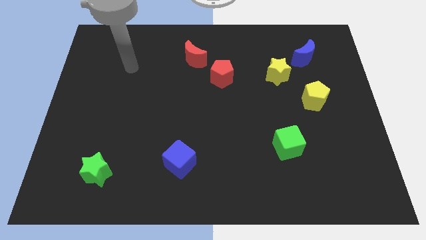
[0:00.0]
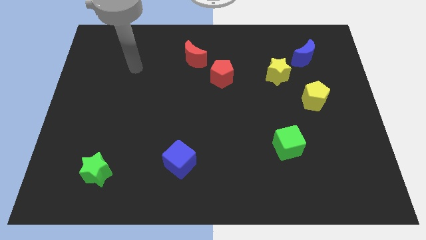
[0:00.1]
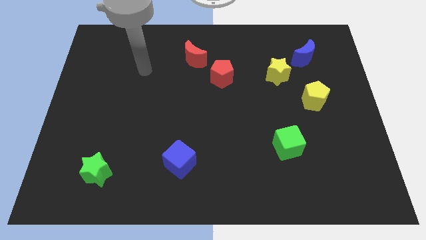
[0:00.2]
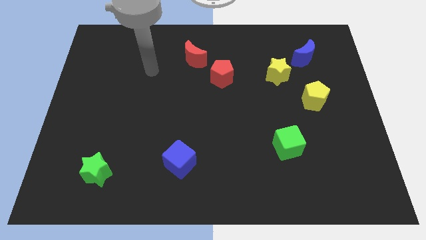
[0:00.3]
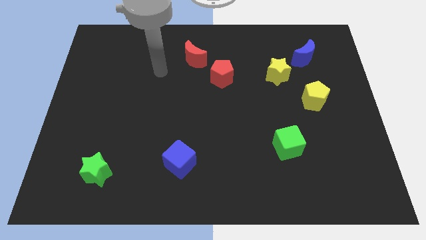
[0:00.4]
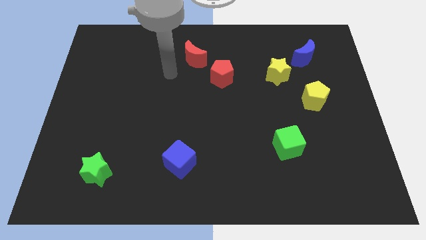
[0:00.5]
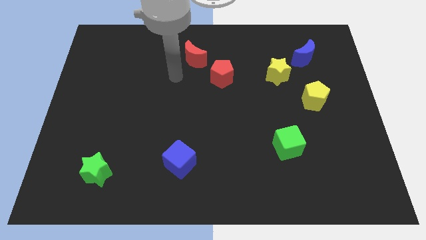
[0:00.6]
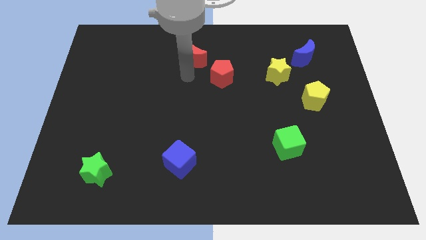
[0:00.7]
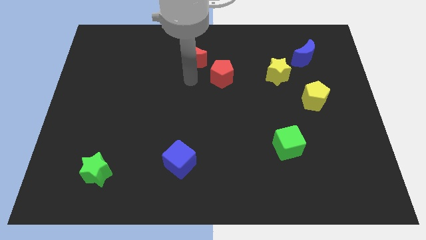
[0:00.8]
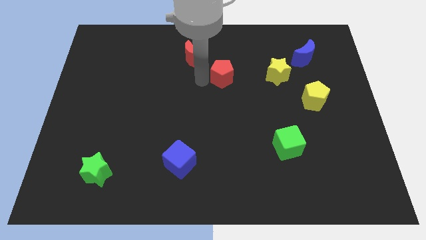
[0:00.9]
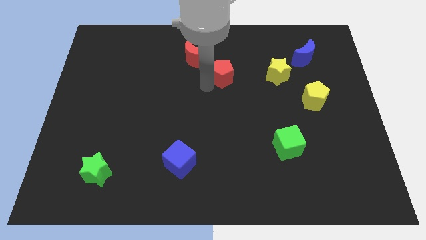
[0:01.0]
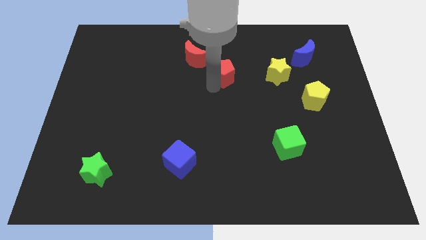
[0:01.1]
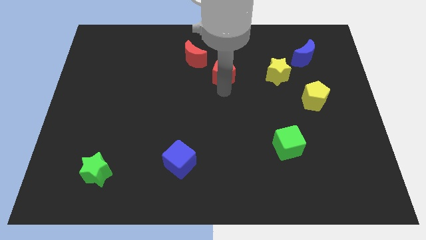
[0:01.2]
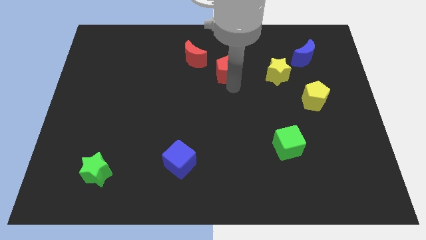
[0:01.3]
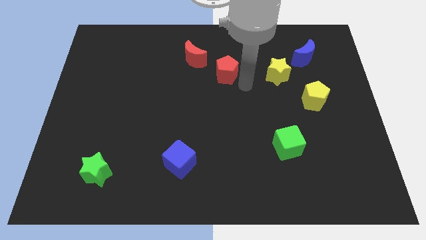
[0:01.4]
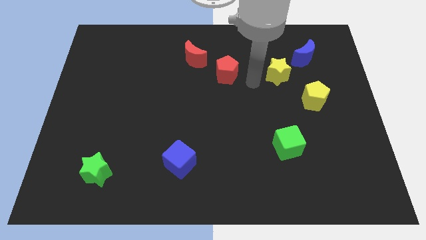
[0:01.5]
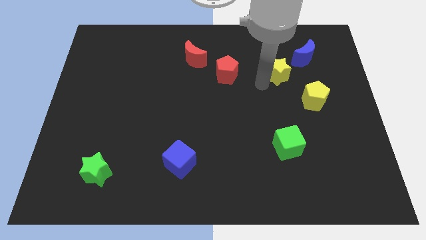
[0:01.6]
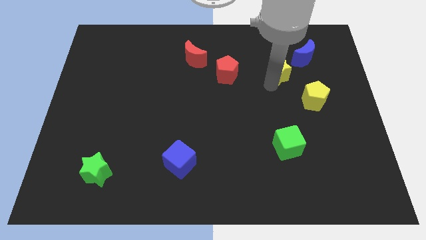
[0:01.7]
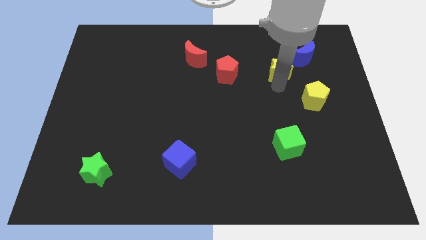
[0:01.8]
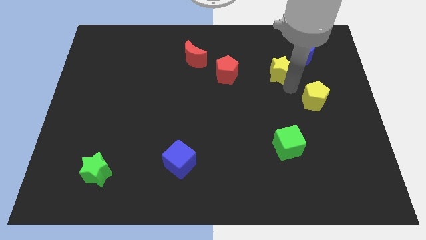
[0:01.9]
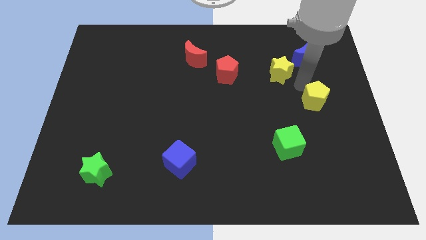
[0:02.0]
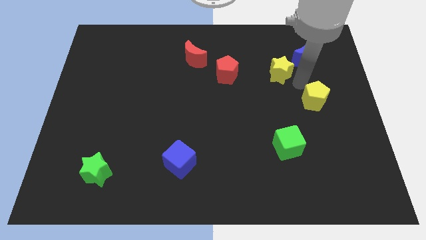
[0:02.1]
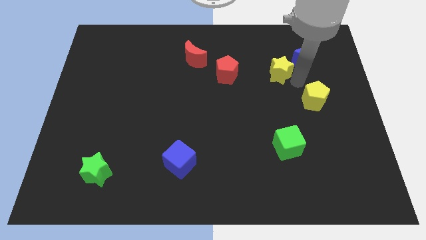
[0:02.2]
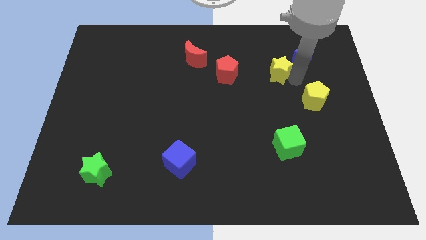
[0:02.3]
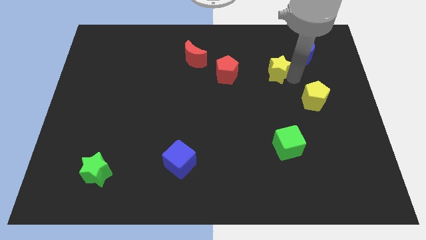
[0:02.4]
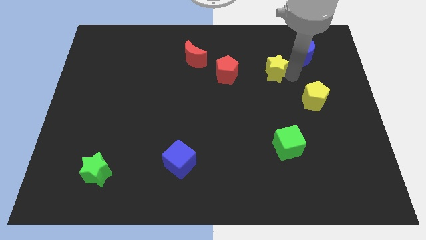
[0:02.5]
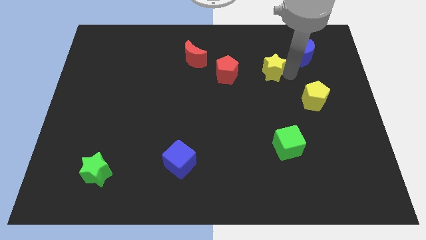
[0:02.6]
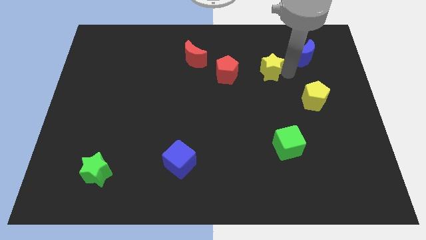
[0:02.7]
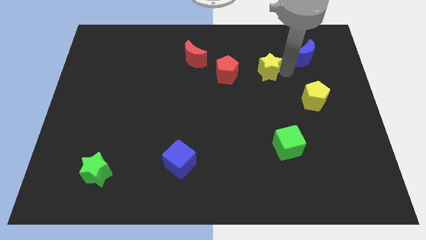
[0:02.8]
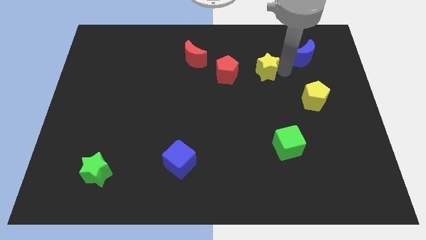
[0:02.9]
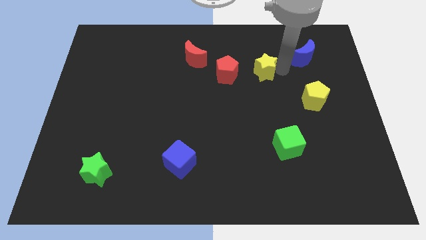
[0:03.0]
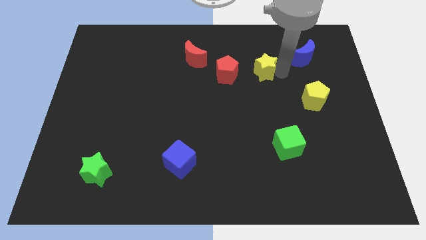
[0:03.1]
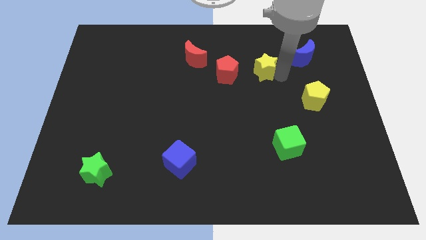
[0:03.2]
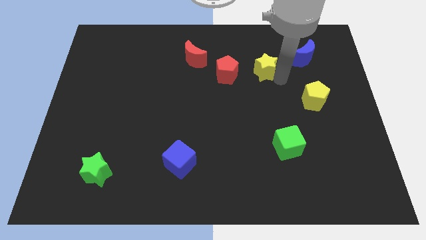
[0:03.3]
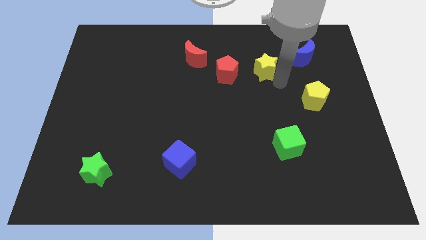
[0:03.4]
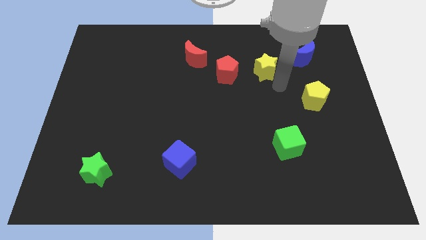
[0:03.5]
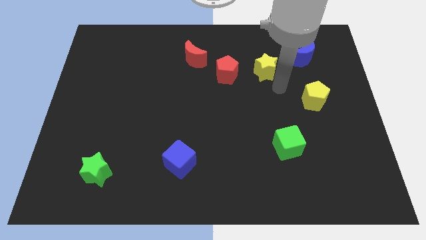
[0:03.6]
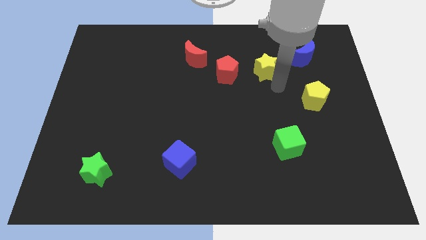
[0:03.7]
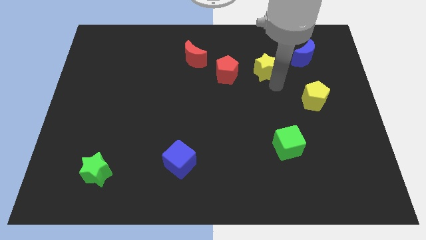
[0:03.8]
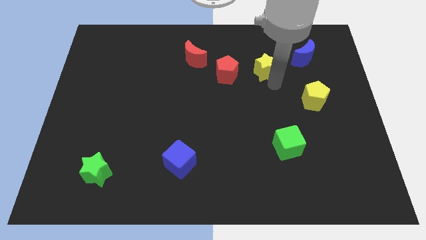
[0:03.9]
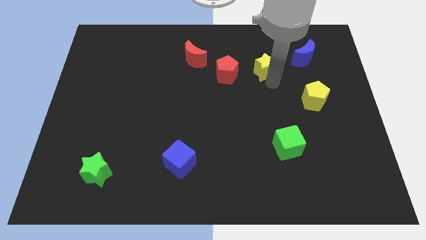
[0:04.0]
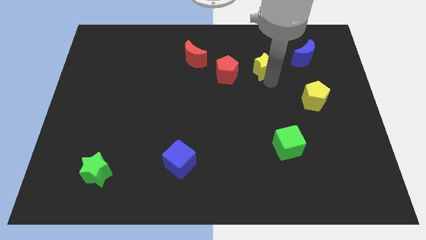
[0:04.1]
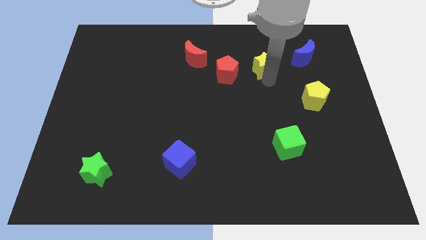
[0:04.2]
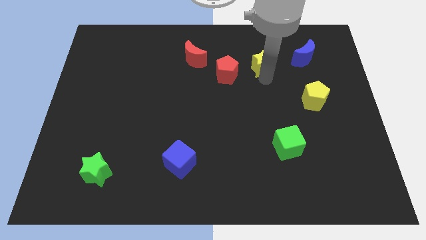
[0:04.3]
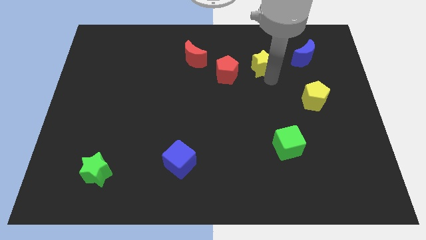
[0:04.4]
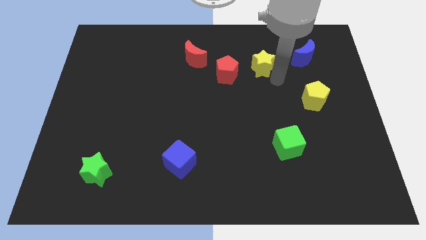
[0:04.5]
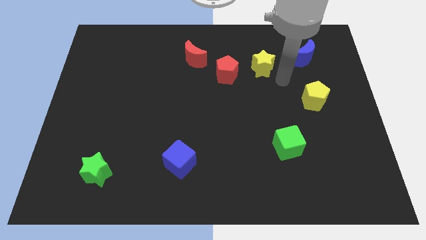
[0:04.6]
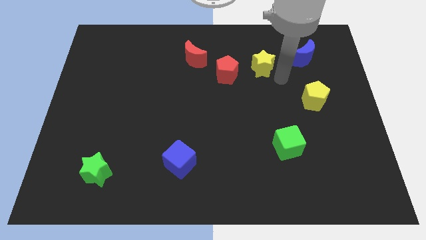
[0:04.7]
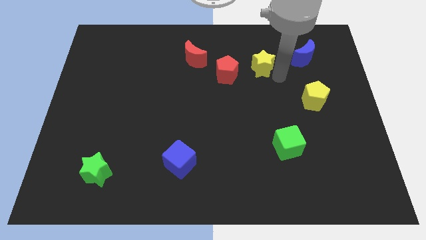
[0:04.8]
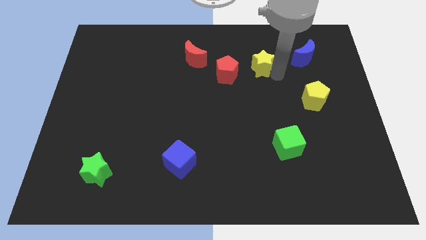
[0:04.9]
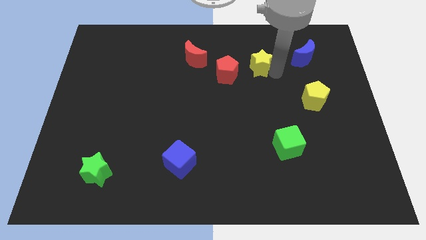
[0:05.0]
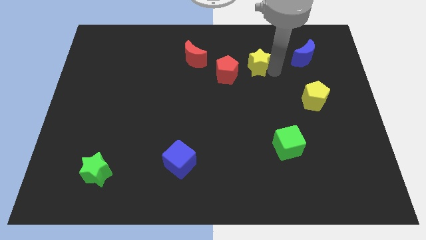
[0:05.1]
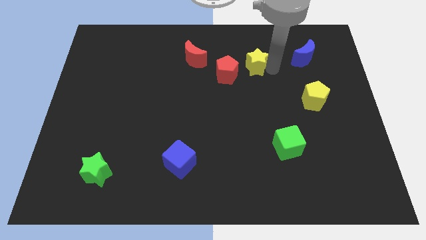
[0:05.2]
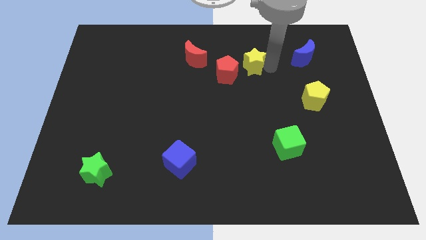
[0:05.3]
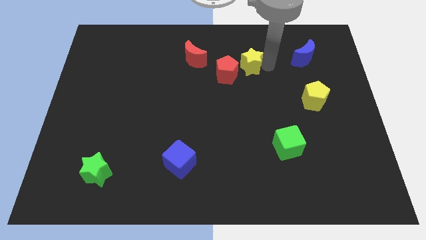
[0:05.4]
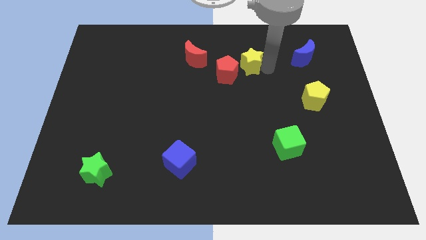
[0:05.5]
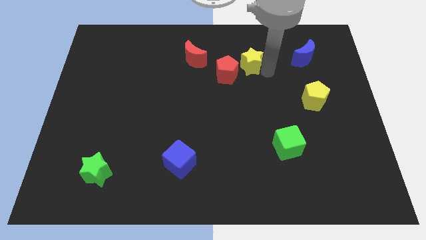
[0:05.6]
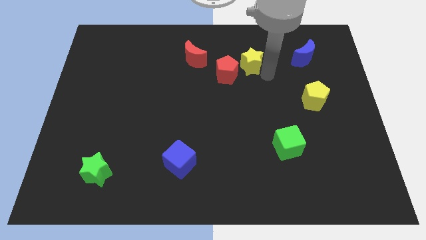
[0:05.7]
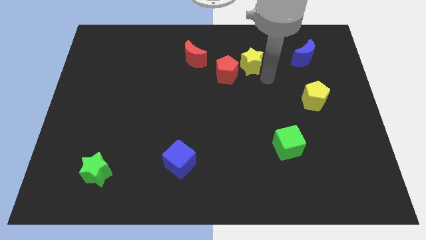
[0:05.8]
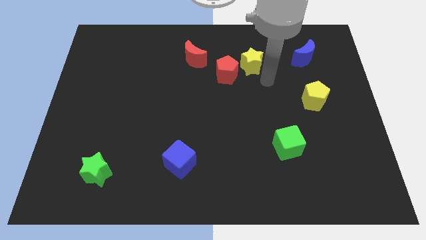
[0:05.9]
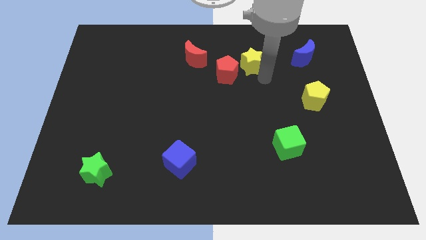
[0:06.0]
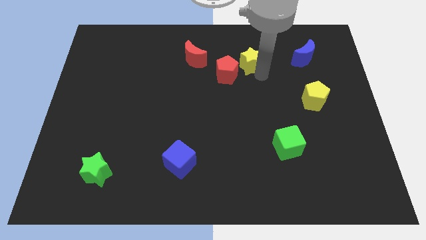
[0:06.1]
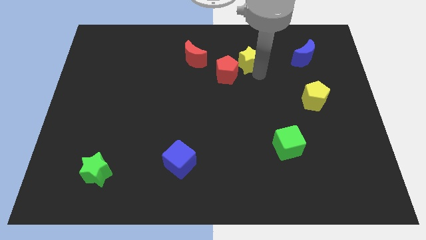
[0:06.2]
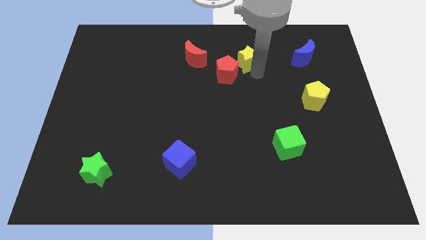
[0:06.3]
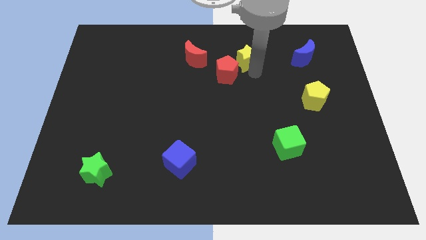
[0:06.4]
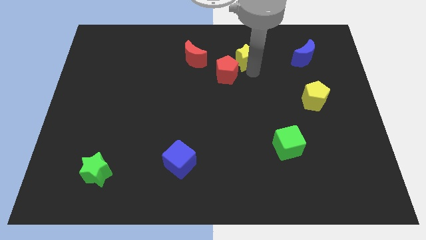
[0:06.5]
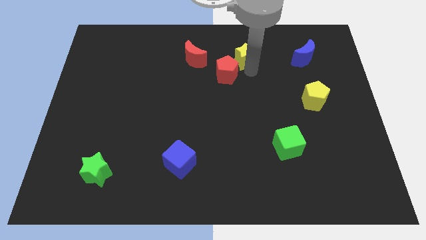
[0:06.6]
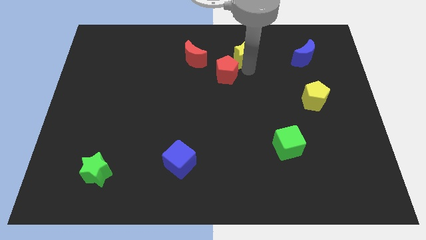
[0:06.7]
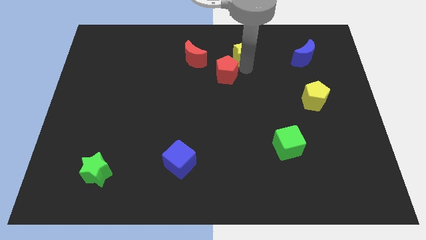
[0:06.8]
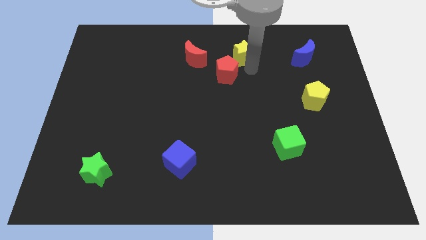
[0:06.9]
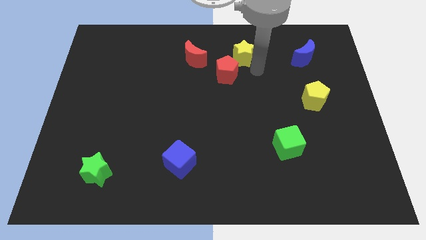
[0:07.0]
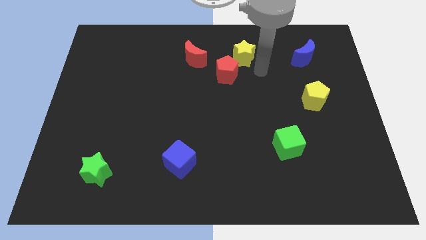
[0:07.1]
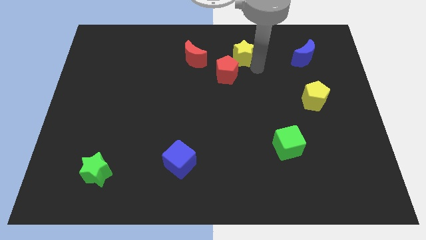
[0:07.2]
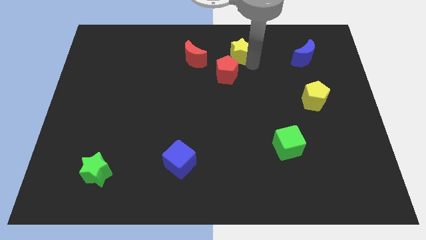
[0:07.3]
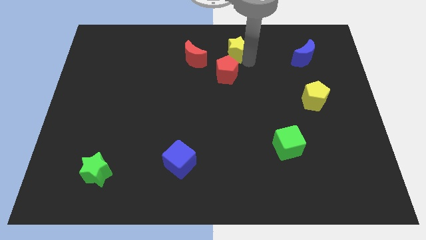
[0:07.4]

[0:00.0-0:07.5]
move the yellow star to the top side
